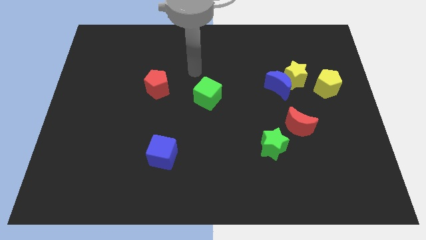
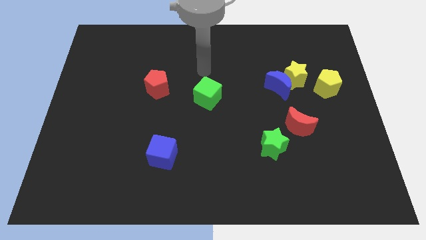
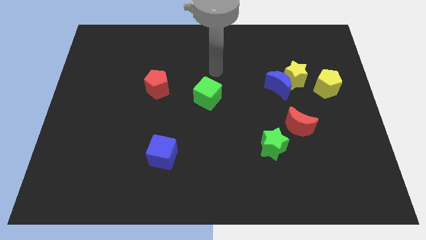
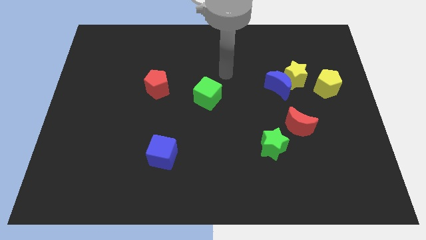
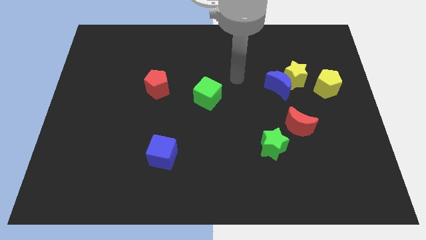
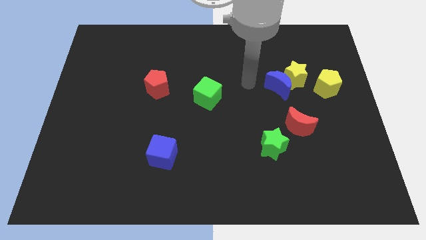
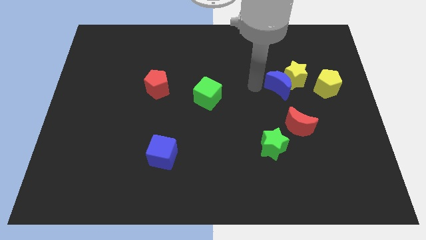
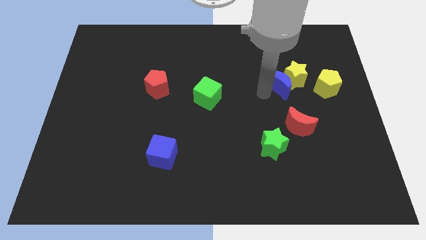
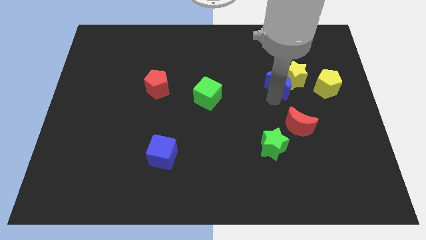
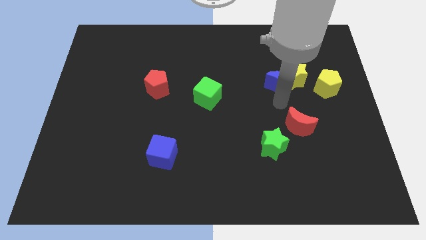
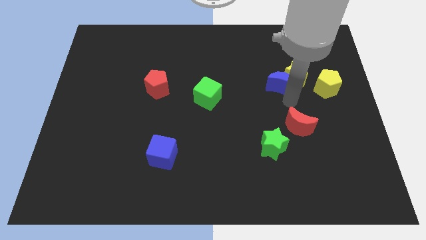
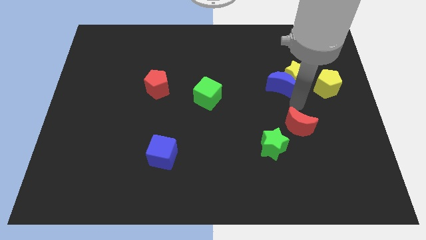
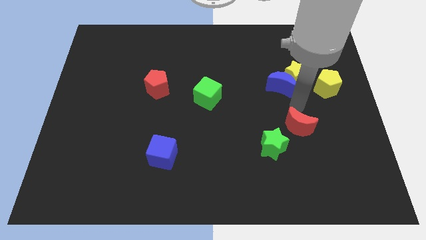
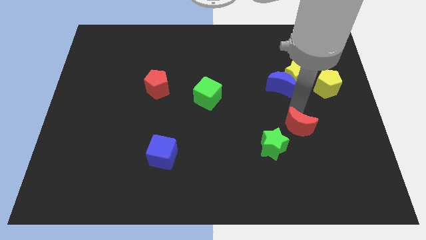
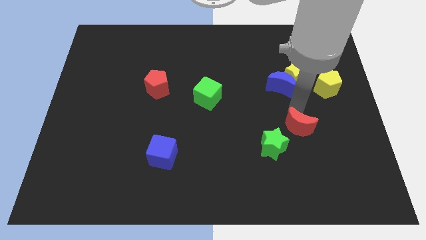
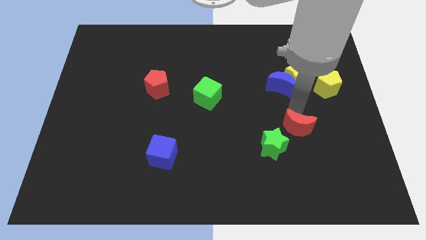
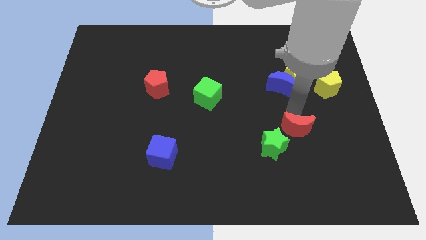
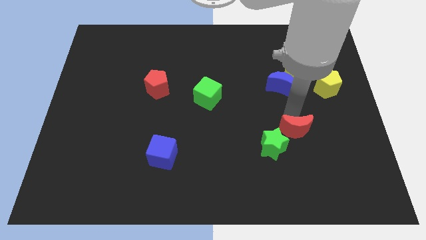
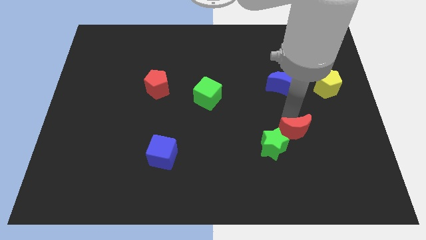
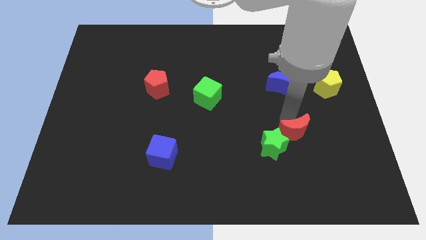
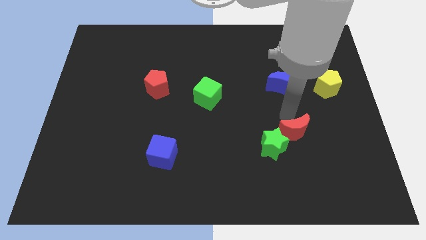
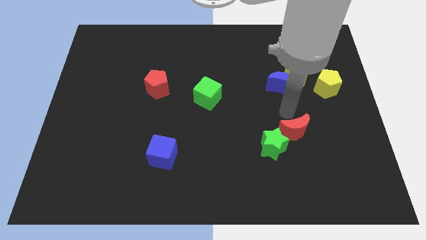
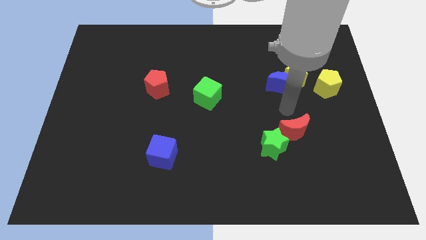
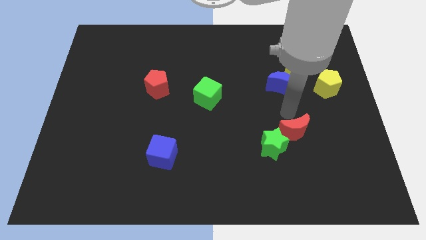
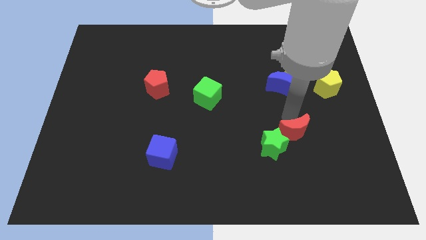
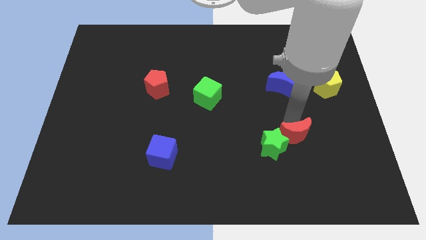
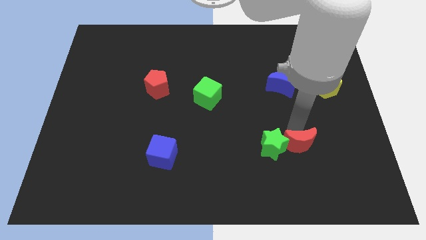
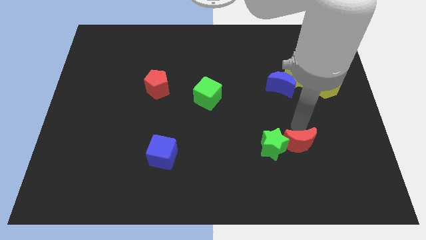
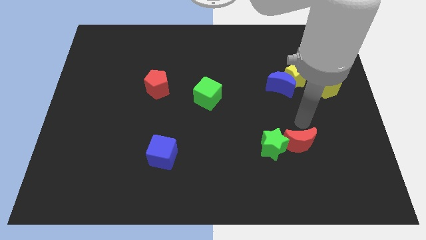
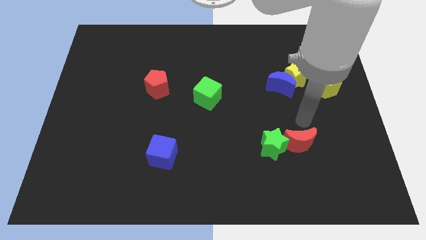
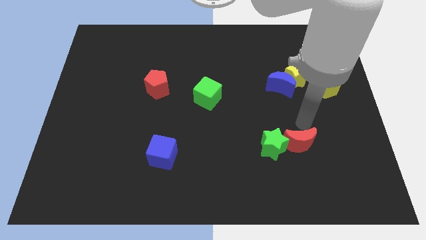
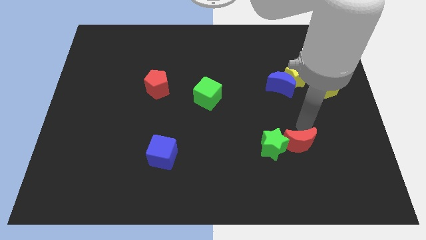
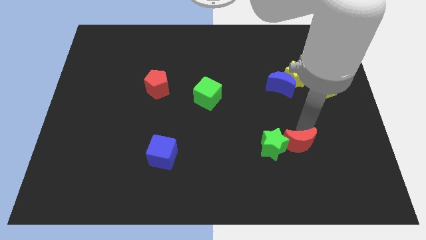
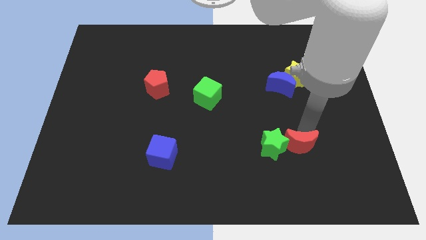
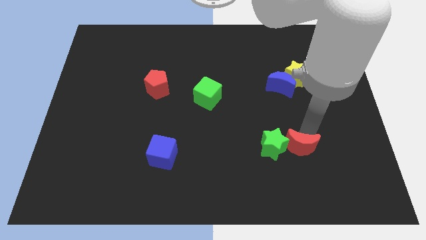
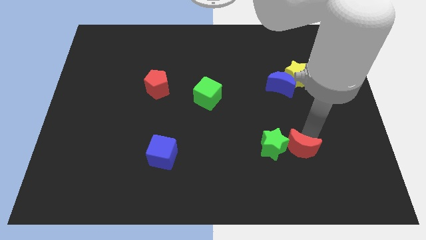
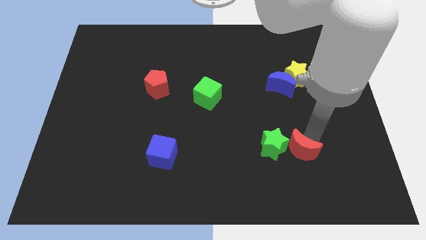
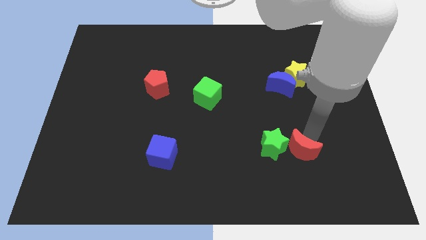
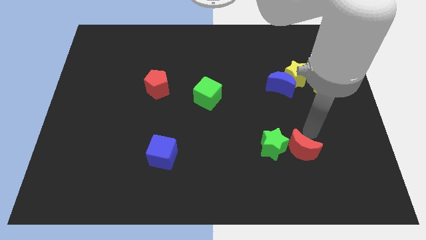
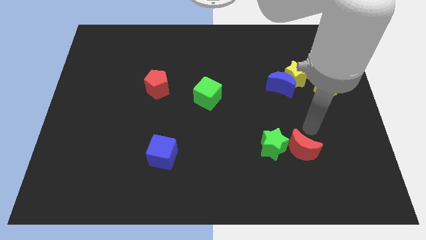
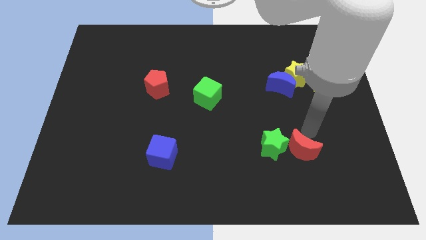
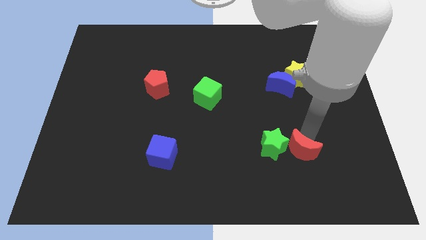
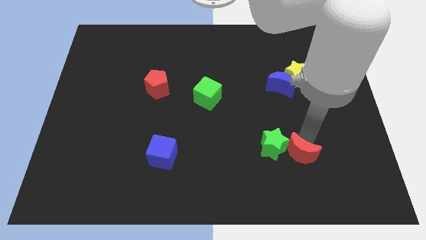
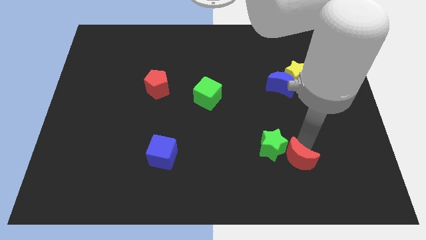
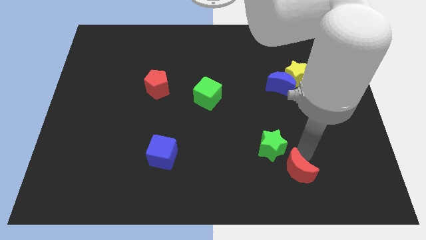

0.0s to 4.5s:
move the red moon diagonally down and to the left slightly

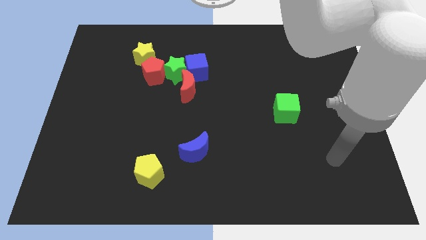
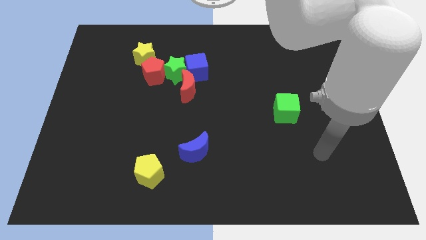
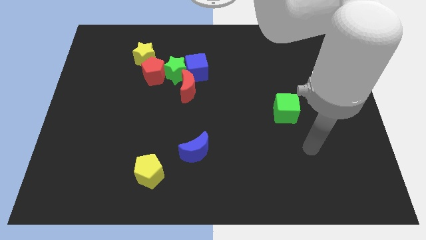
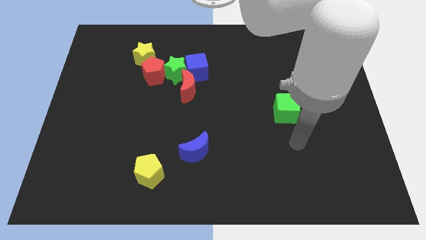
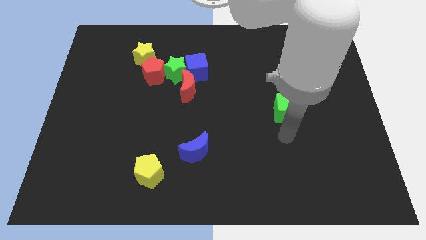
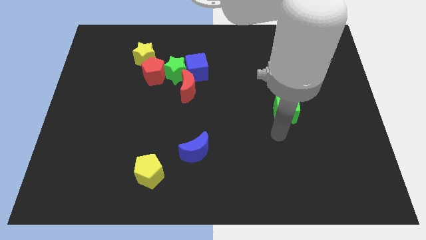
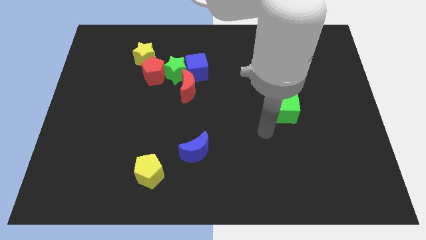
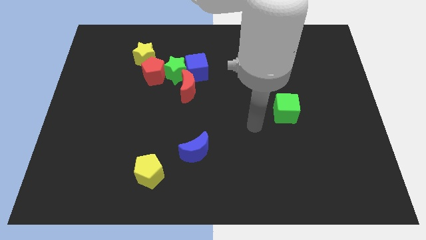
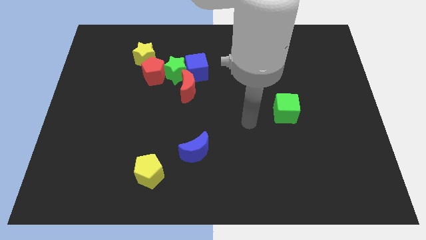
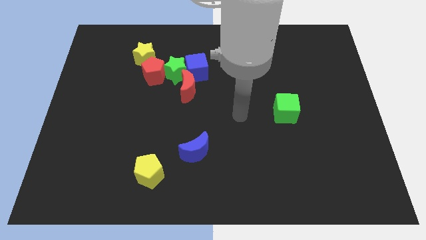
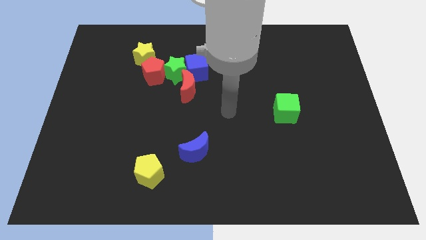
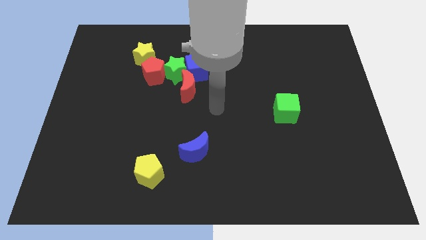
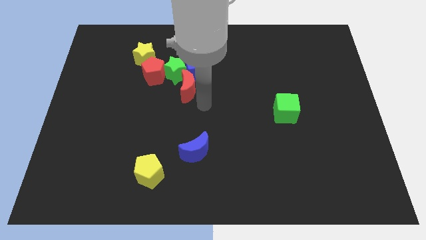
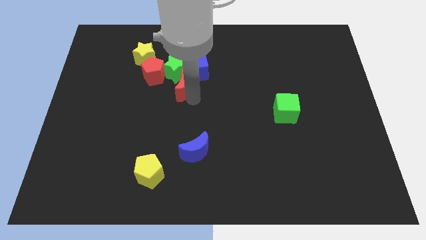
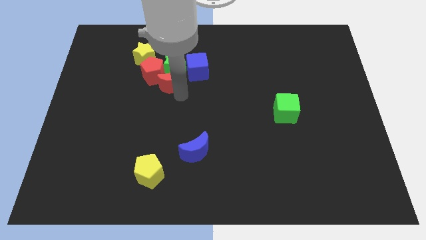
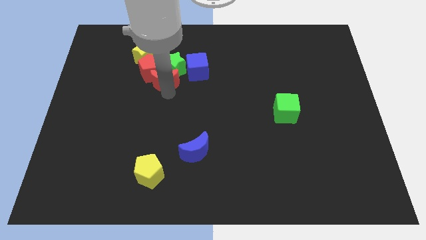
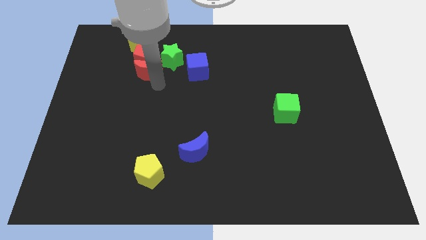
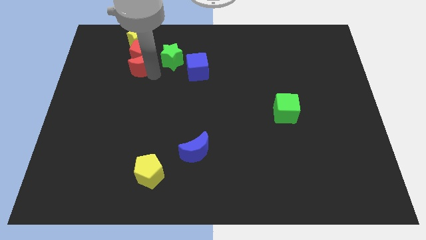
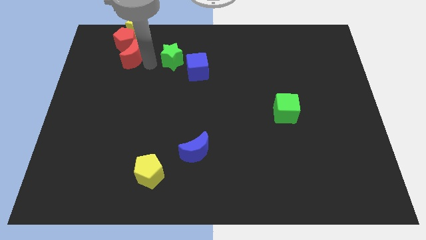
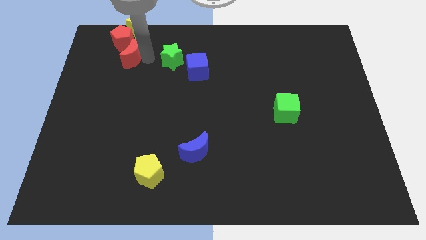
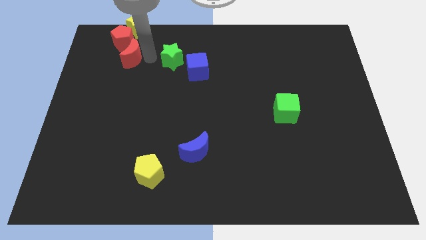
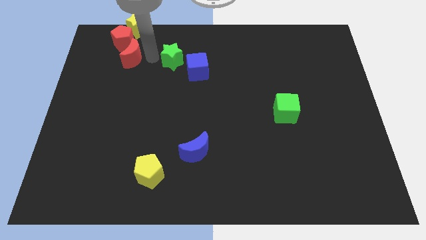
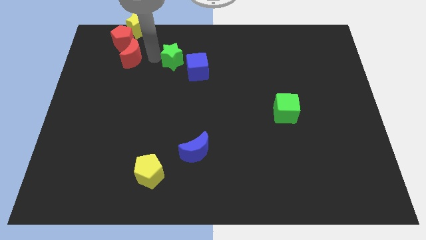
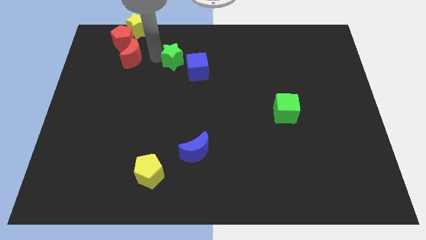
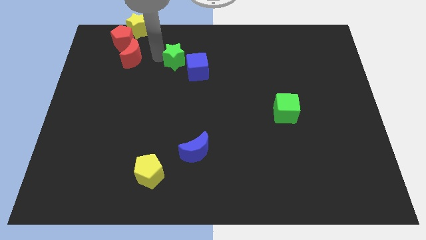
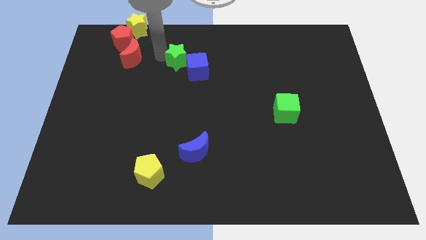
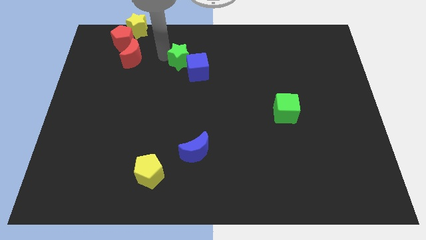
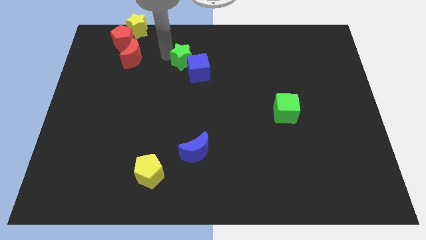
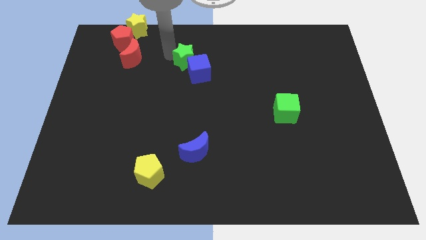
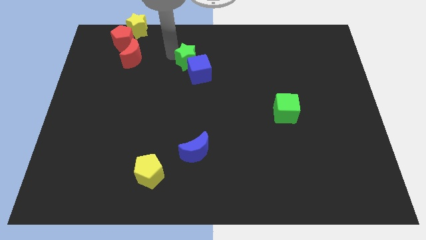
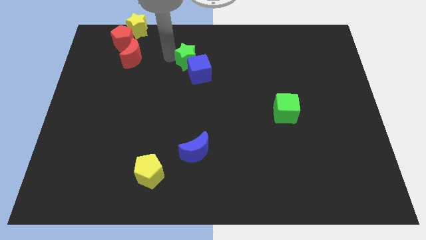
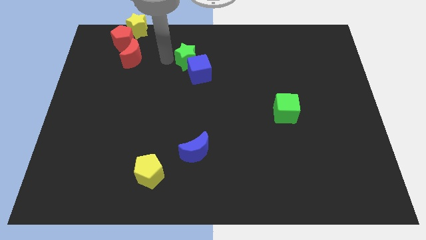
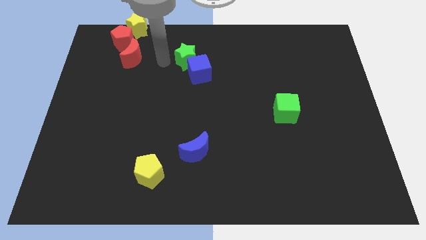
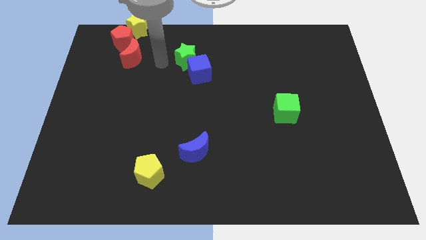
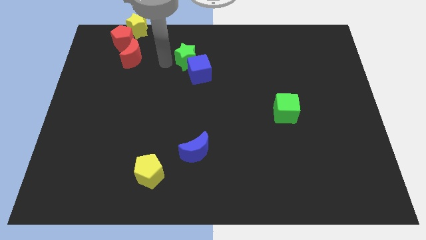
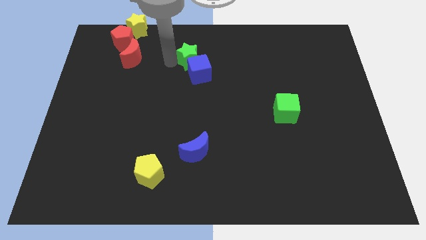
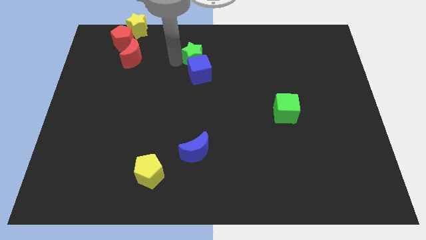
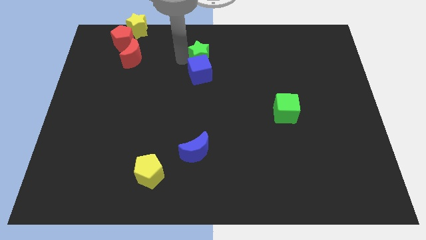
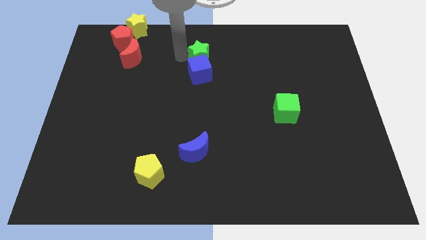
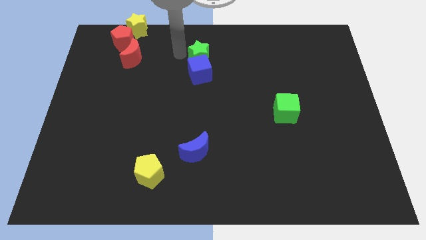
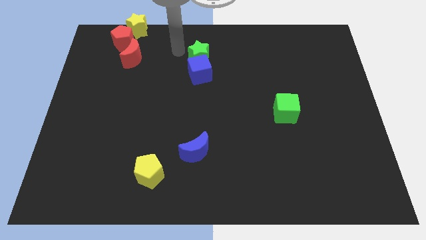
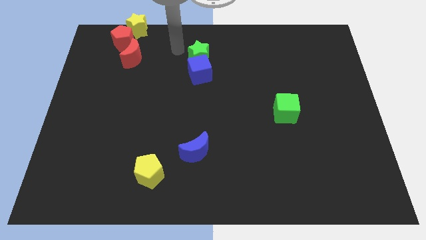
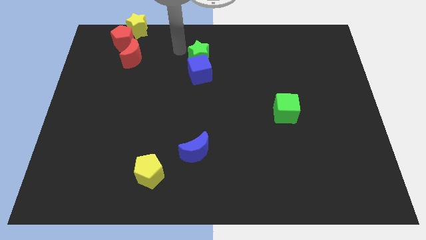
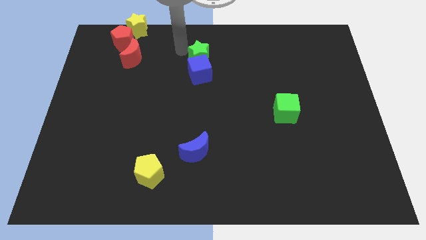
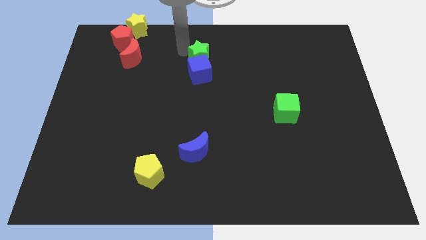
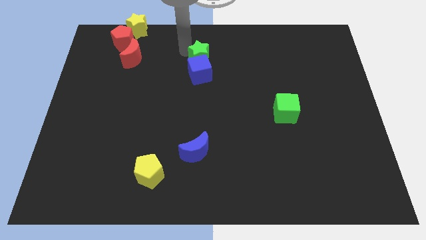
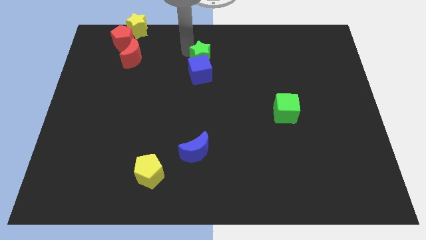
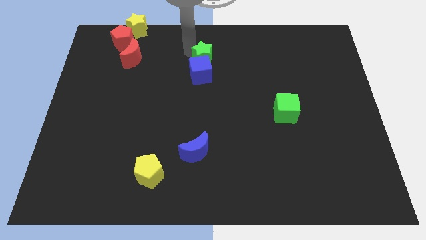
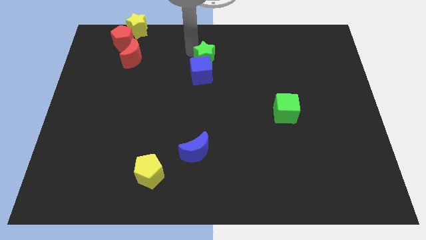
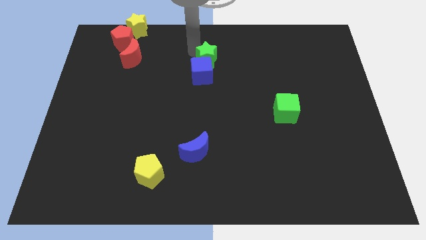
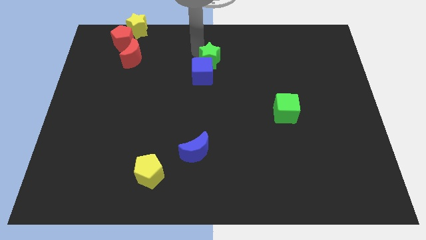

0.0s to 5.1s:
move the green star to the right a little
